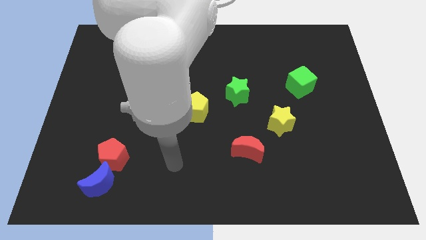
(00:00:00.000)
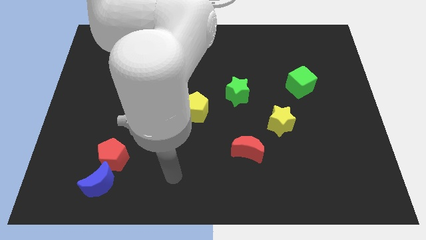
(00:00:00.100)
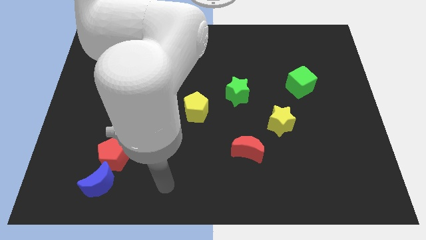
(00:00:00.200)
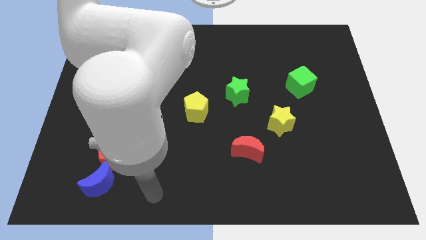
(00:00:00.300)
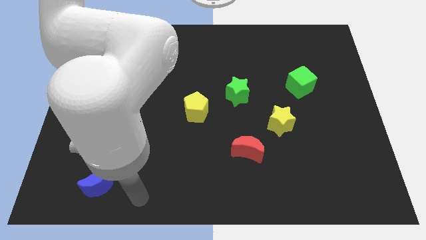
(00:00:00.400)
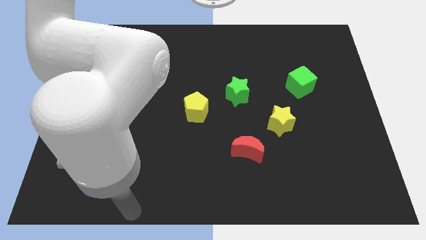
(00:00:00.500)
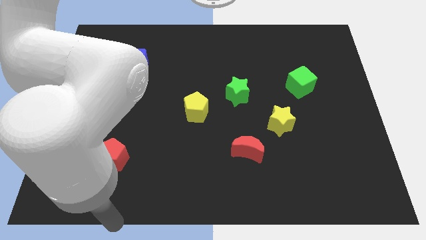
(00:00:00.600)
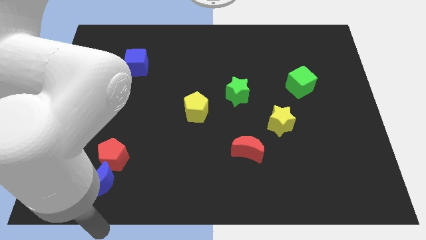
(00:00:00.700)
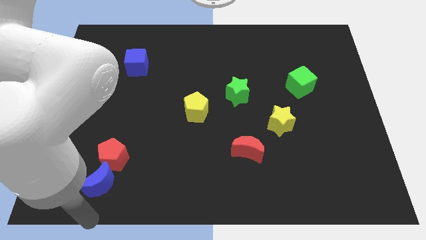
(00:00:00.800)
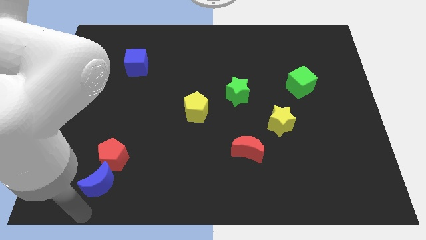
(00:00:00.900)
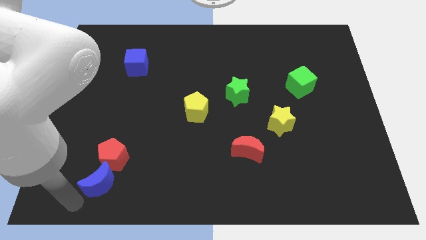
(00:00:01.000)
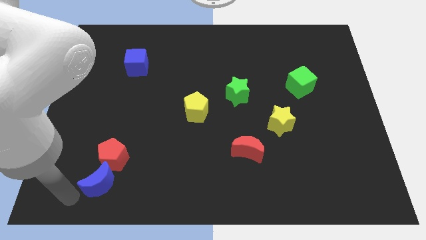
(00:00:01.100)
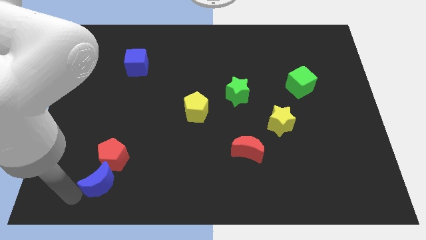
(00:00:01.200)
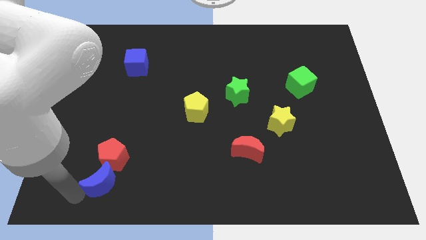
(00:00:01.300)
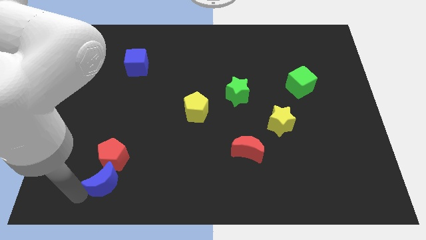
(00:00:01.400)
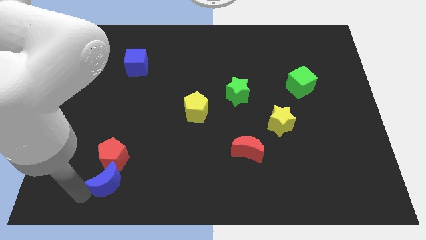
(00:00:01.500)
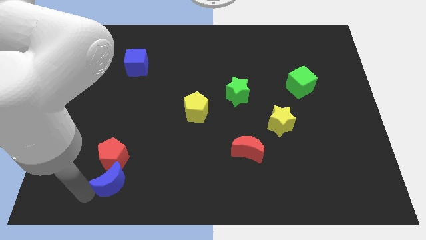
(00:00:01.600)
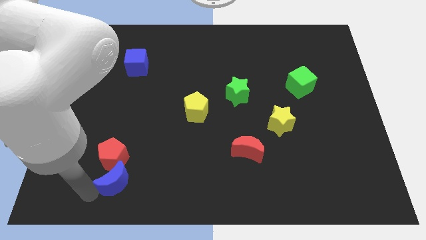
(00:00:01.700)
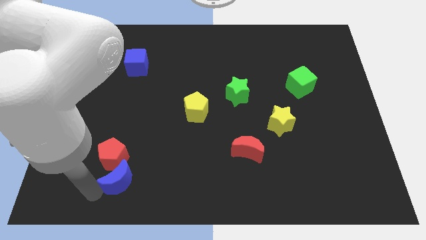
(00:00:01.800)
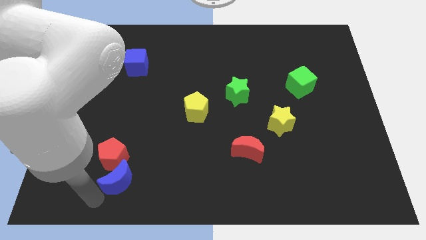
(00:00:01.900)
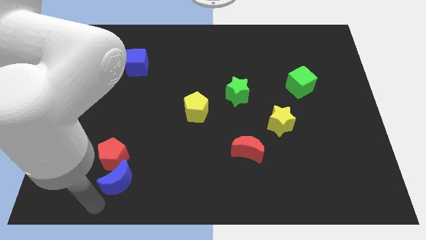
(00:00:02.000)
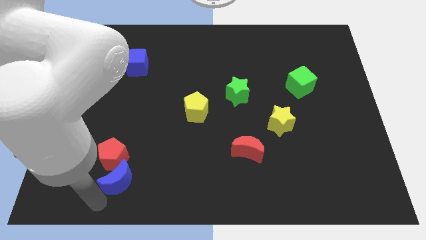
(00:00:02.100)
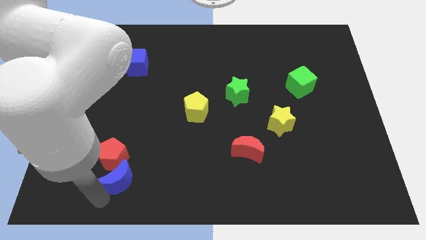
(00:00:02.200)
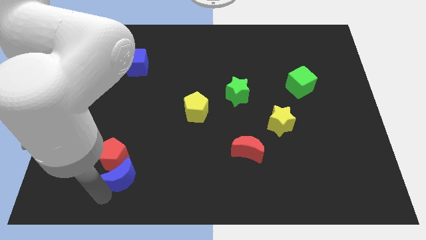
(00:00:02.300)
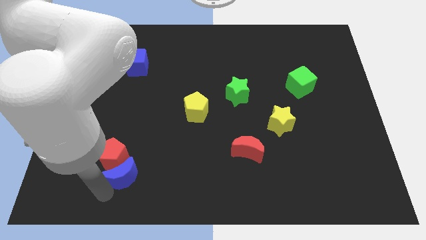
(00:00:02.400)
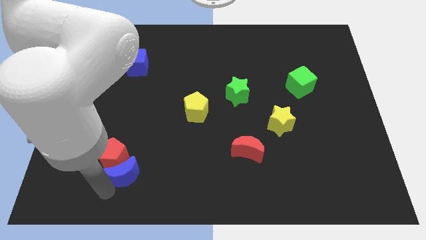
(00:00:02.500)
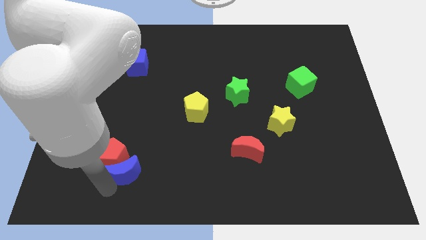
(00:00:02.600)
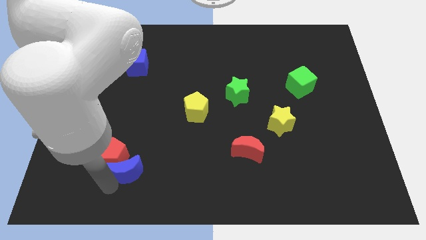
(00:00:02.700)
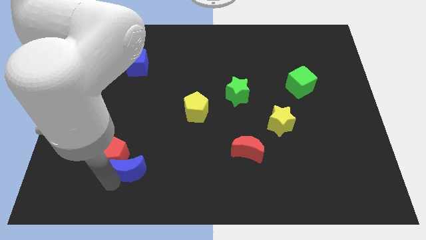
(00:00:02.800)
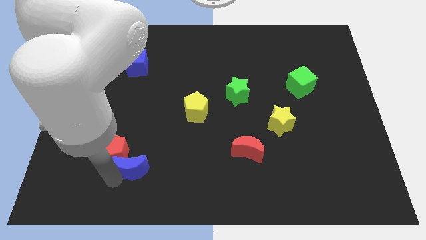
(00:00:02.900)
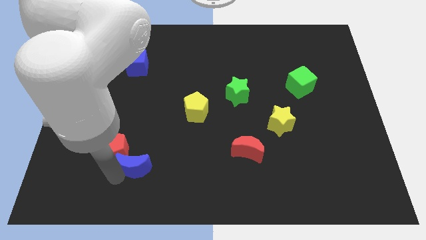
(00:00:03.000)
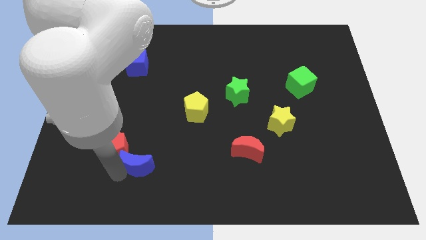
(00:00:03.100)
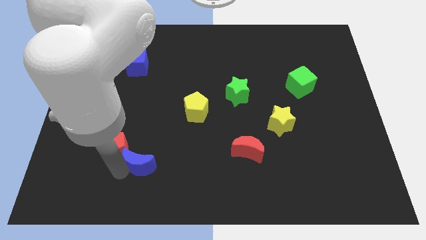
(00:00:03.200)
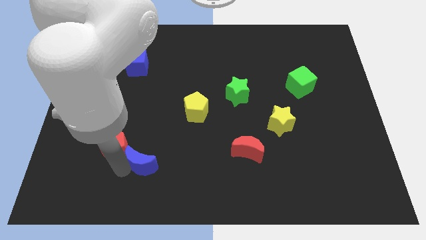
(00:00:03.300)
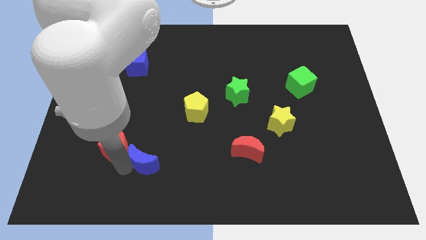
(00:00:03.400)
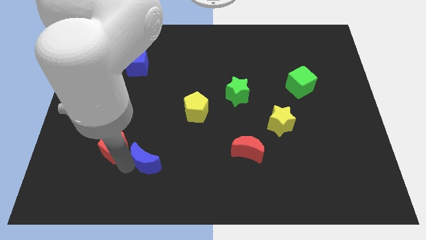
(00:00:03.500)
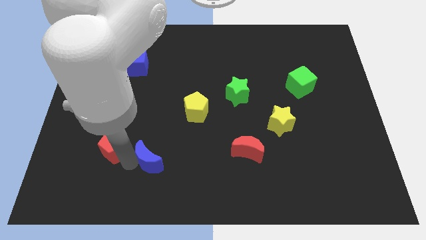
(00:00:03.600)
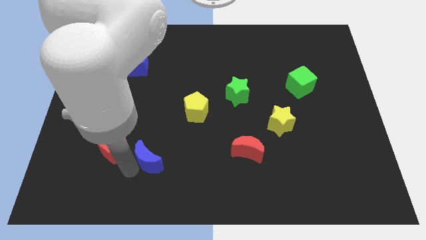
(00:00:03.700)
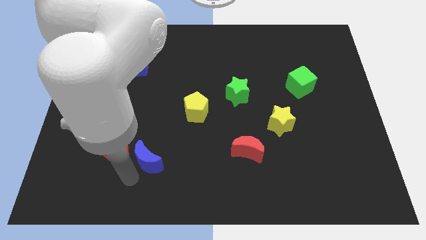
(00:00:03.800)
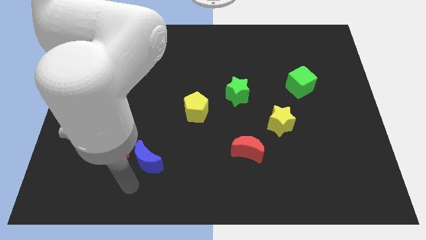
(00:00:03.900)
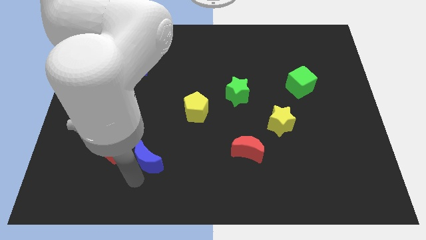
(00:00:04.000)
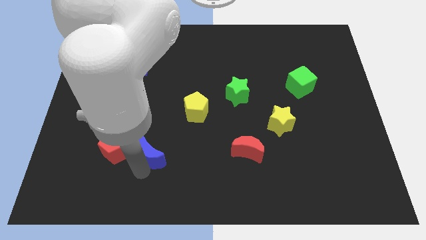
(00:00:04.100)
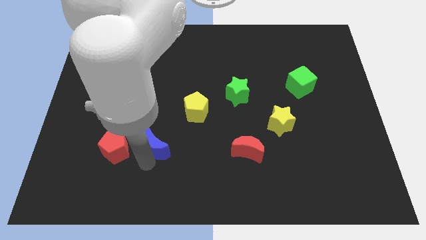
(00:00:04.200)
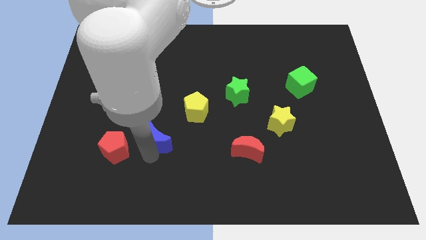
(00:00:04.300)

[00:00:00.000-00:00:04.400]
slide the blue moon to the bottom left side of the yellow pentagon

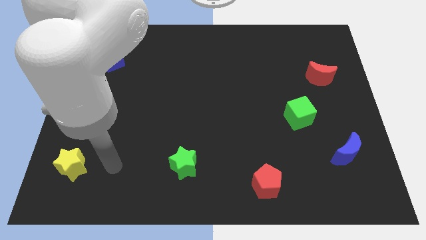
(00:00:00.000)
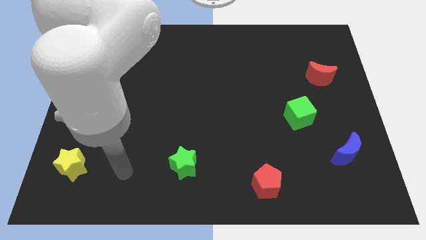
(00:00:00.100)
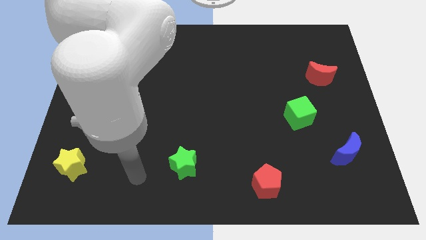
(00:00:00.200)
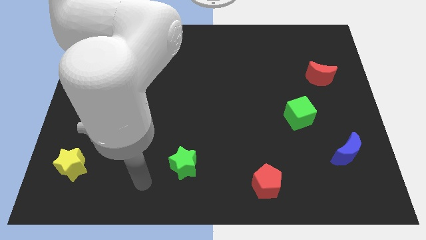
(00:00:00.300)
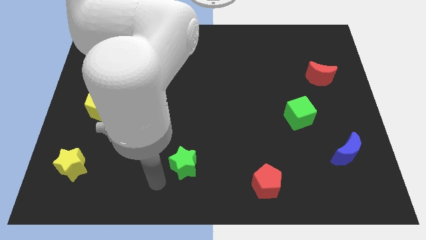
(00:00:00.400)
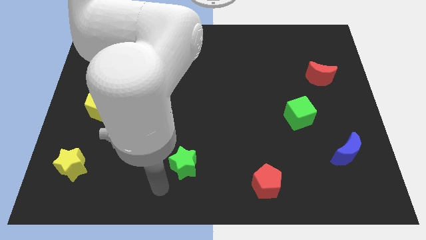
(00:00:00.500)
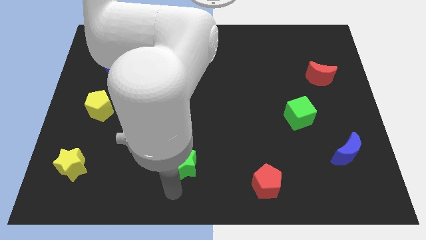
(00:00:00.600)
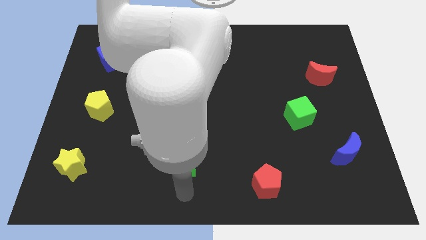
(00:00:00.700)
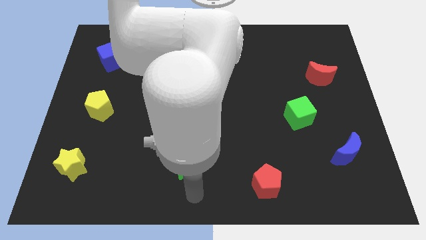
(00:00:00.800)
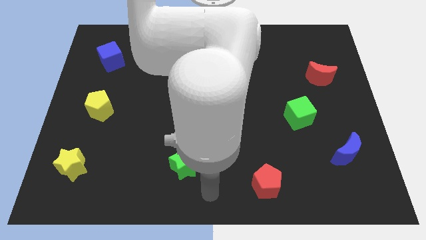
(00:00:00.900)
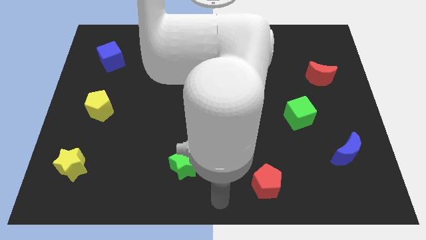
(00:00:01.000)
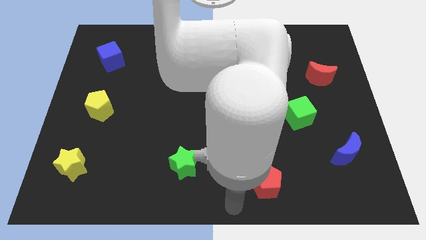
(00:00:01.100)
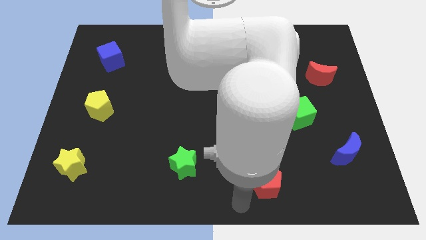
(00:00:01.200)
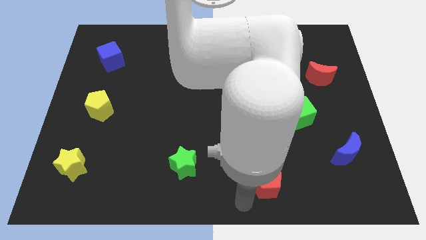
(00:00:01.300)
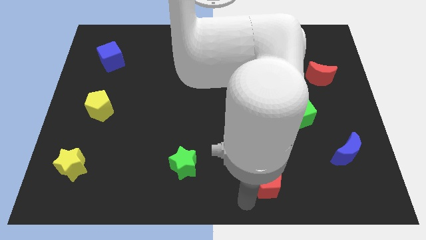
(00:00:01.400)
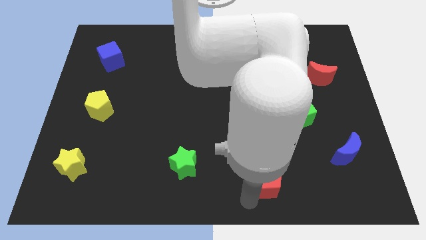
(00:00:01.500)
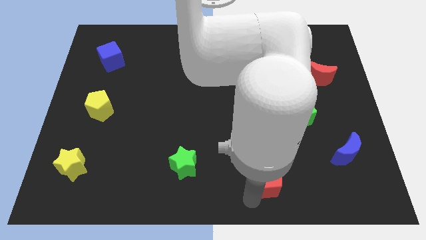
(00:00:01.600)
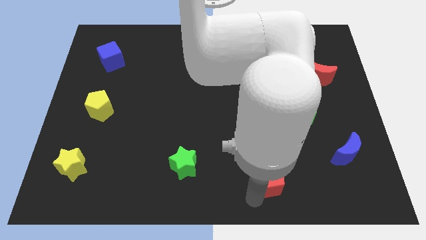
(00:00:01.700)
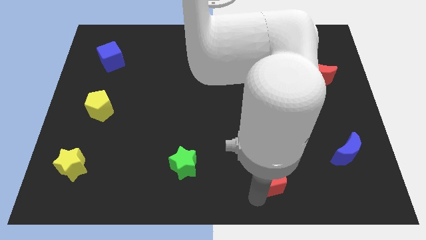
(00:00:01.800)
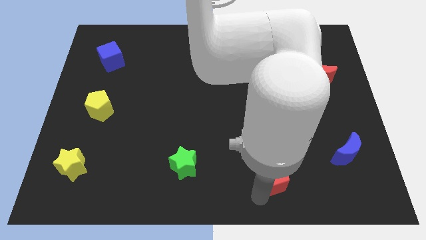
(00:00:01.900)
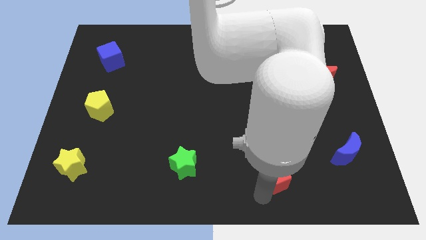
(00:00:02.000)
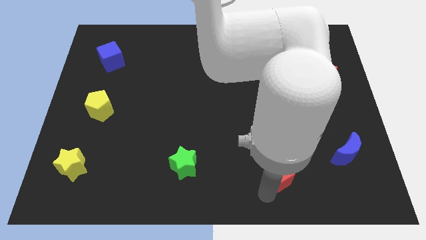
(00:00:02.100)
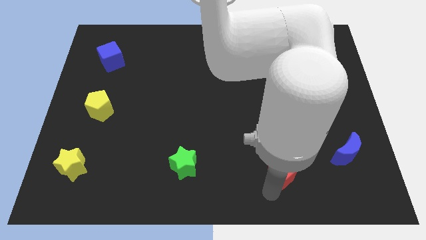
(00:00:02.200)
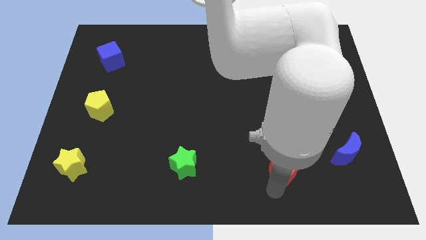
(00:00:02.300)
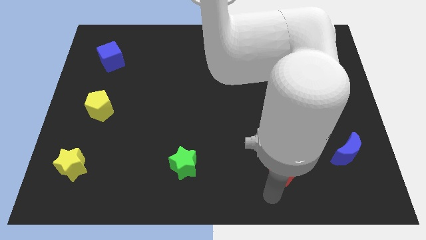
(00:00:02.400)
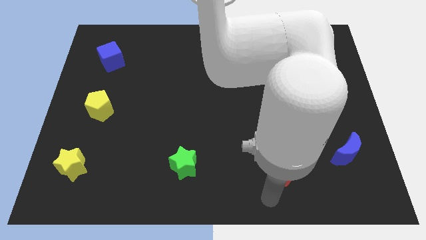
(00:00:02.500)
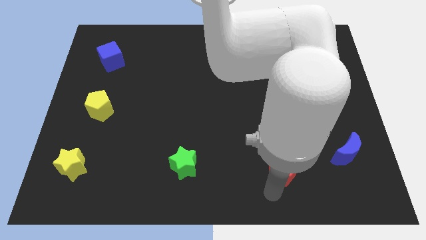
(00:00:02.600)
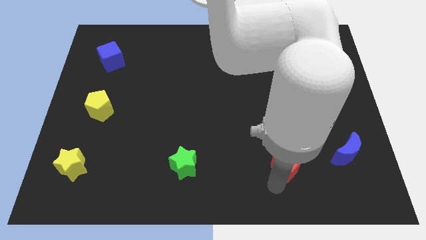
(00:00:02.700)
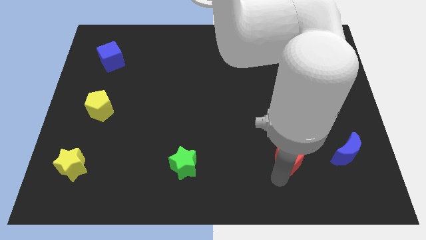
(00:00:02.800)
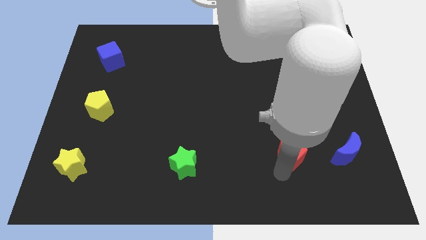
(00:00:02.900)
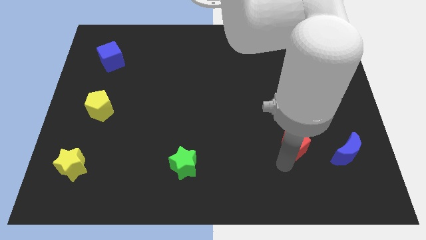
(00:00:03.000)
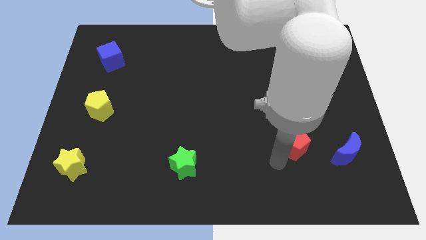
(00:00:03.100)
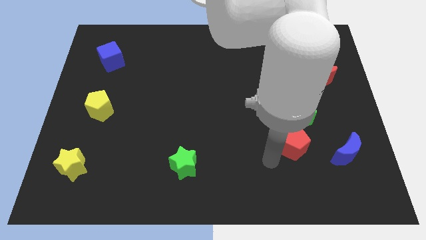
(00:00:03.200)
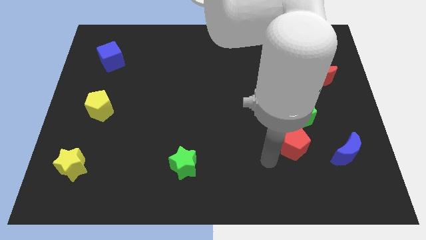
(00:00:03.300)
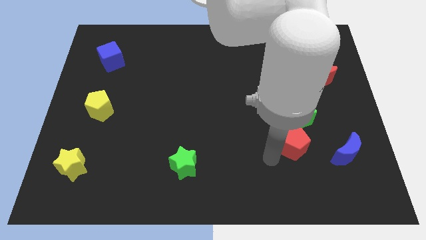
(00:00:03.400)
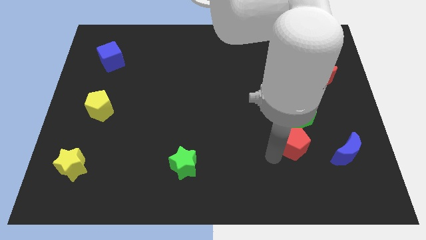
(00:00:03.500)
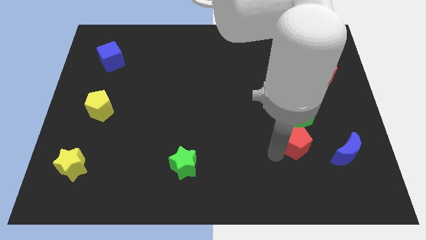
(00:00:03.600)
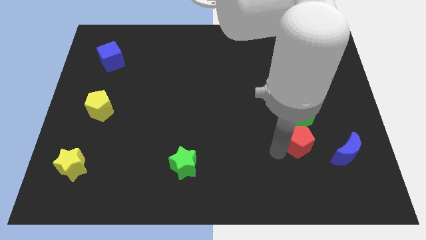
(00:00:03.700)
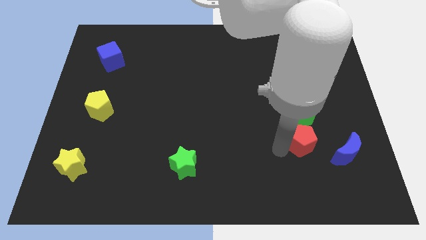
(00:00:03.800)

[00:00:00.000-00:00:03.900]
push the red pentagon diagonally up and to the left of the blue moon

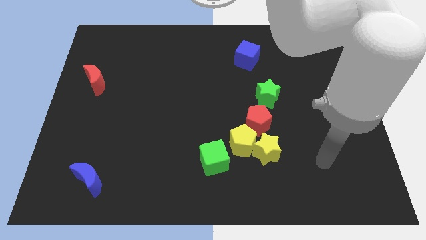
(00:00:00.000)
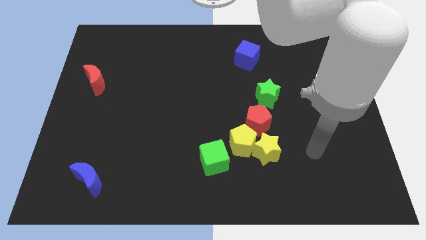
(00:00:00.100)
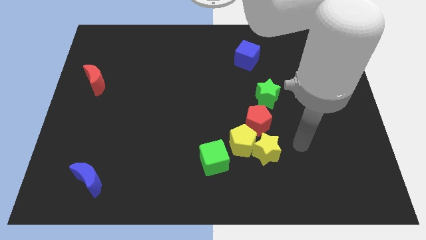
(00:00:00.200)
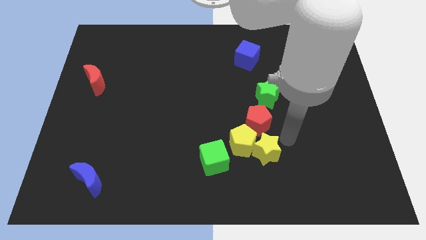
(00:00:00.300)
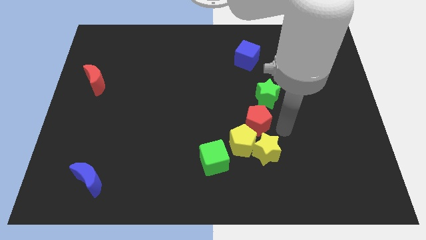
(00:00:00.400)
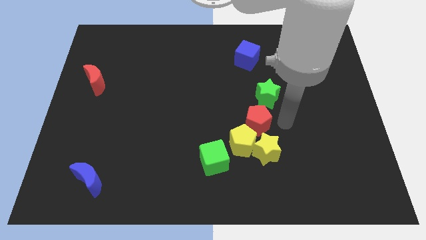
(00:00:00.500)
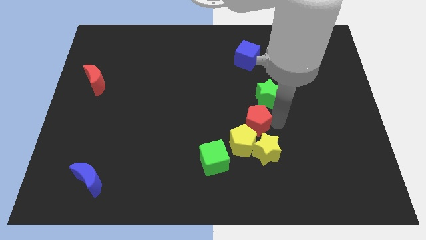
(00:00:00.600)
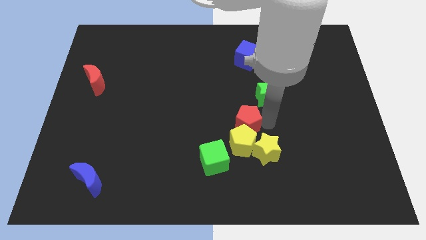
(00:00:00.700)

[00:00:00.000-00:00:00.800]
push the red pentagon to the top left of the yellow pentagon
